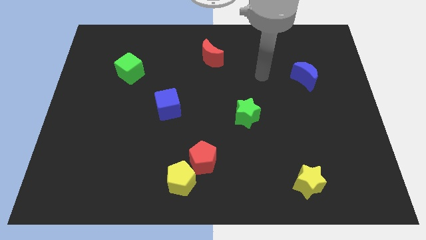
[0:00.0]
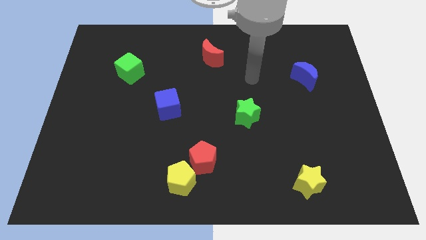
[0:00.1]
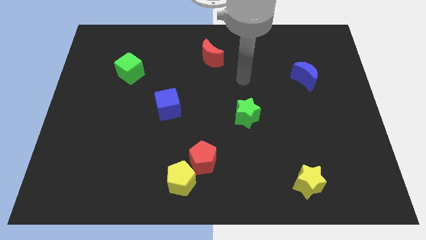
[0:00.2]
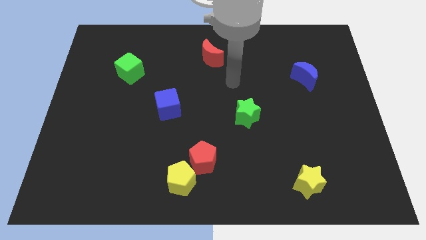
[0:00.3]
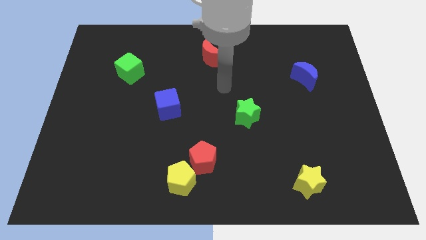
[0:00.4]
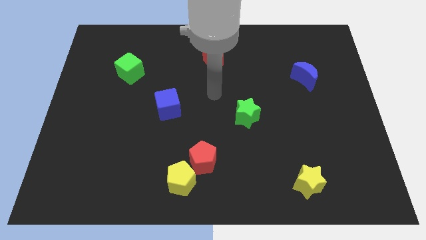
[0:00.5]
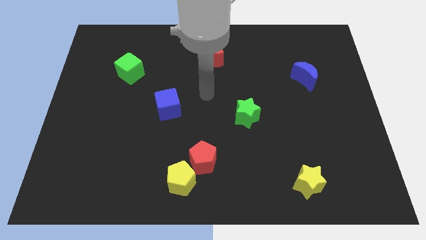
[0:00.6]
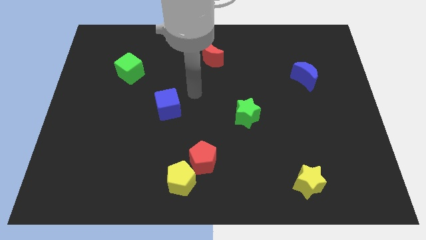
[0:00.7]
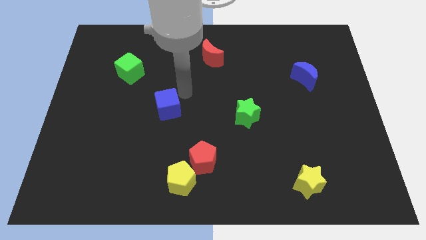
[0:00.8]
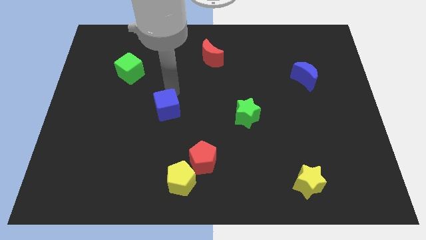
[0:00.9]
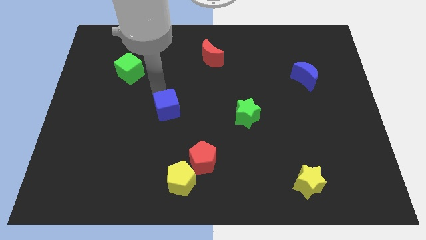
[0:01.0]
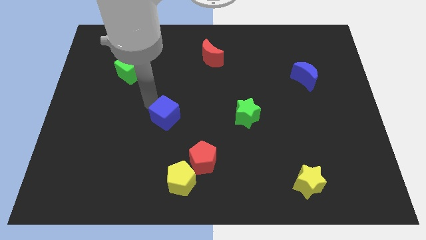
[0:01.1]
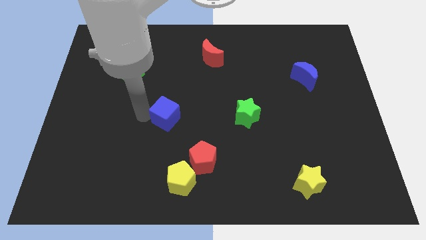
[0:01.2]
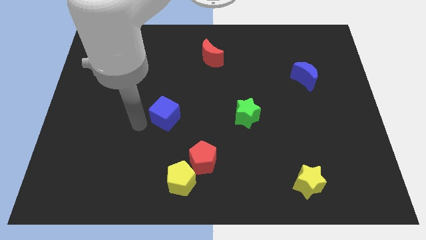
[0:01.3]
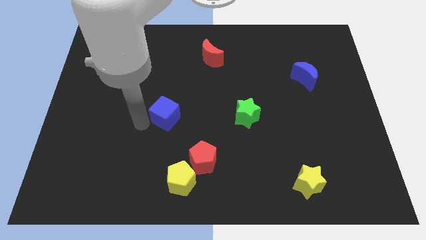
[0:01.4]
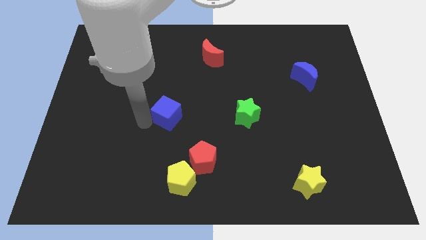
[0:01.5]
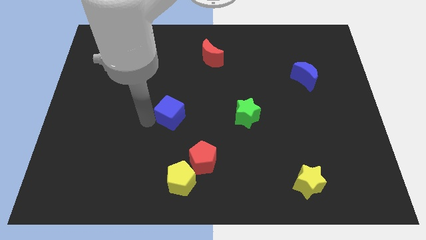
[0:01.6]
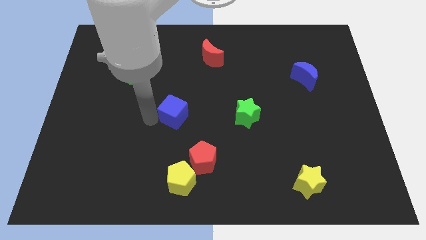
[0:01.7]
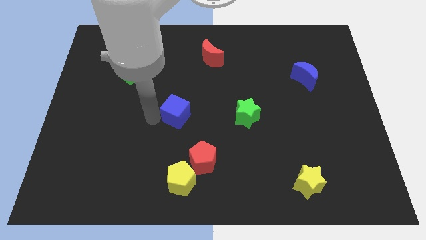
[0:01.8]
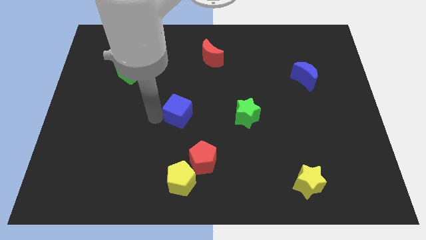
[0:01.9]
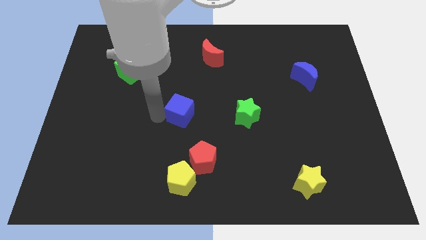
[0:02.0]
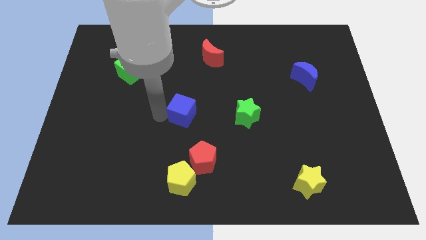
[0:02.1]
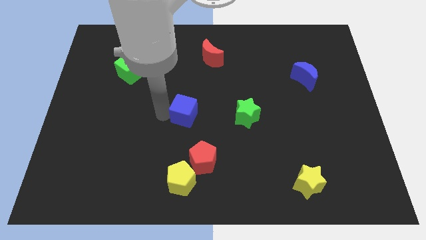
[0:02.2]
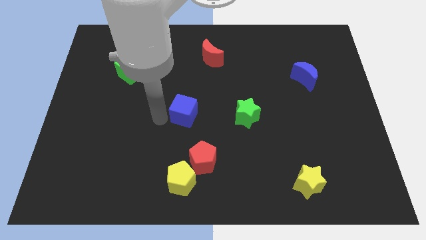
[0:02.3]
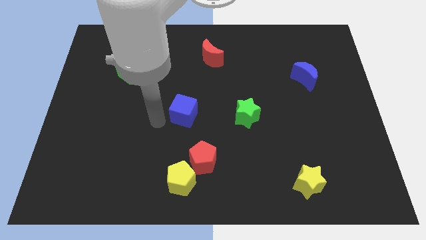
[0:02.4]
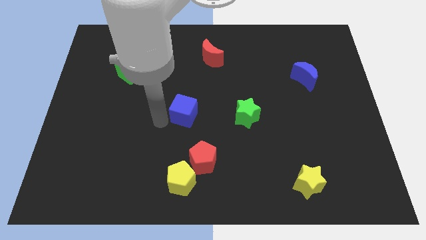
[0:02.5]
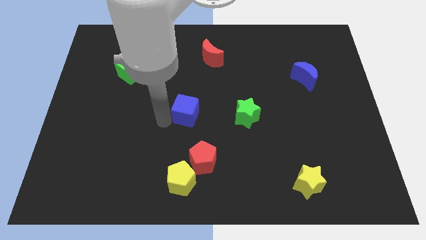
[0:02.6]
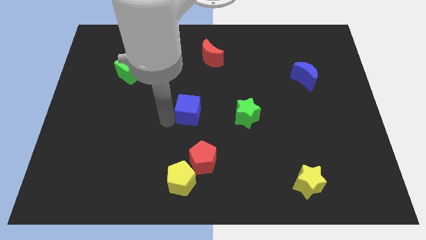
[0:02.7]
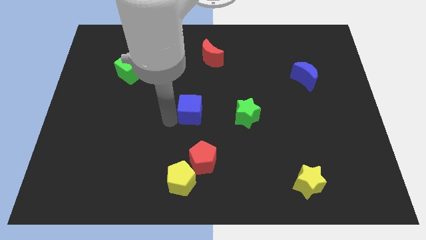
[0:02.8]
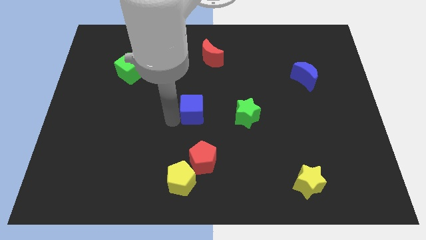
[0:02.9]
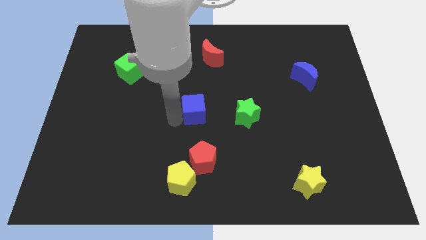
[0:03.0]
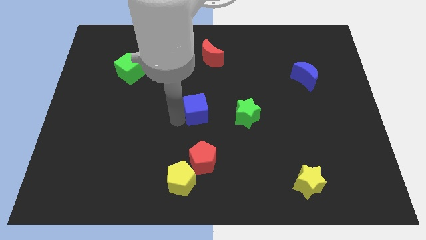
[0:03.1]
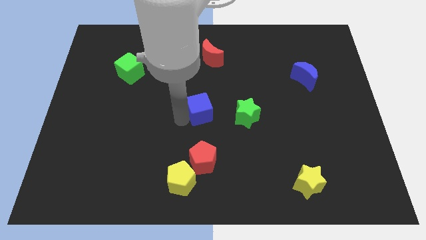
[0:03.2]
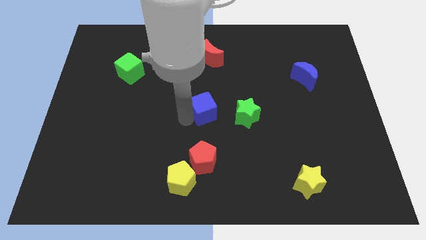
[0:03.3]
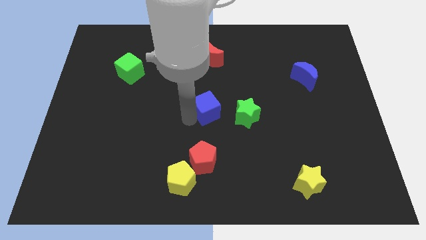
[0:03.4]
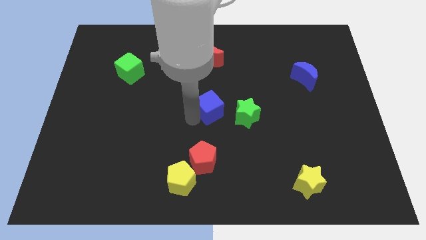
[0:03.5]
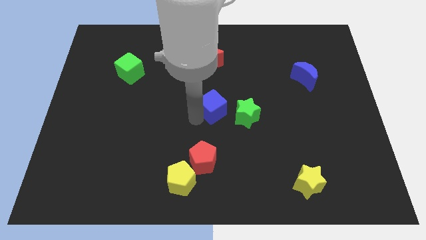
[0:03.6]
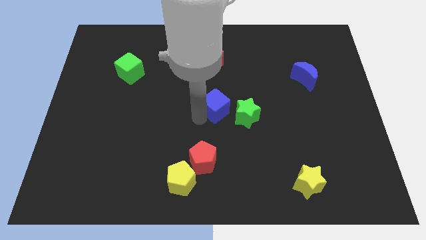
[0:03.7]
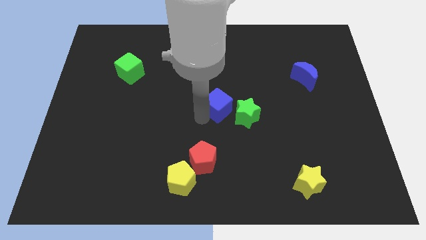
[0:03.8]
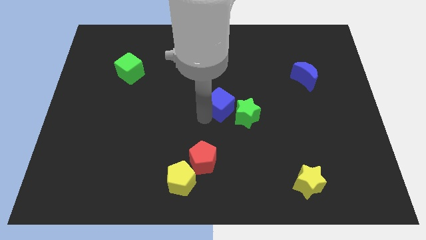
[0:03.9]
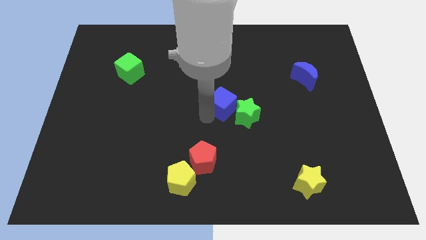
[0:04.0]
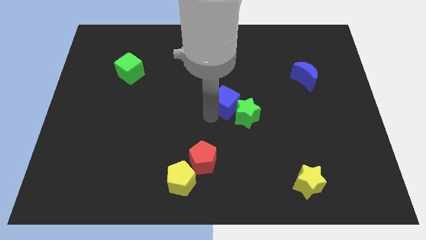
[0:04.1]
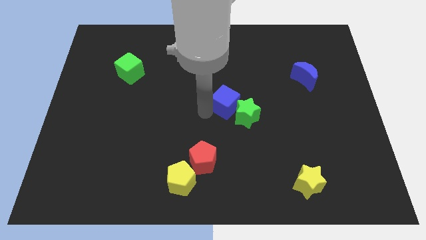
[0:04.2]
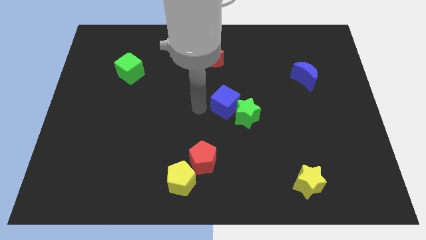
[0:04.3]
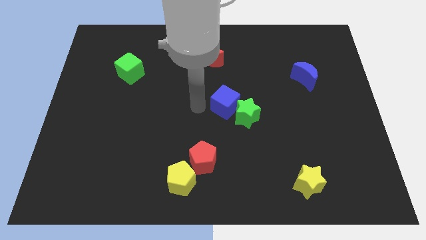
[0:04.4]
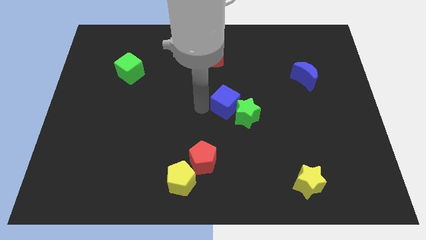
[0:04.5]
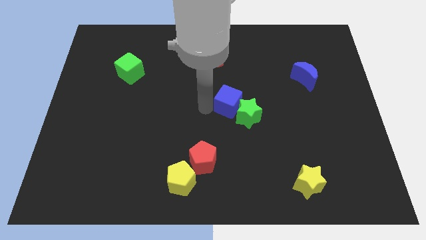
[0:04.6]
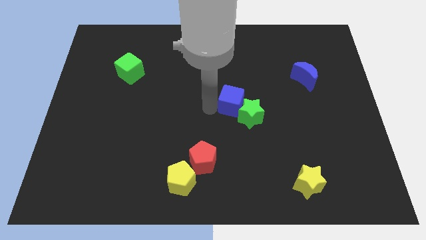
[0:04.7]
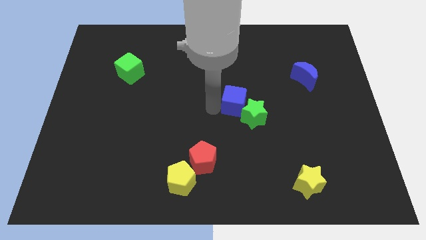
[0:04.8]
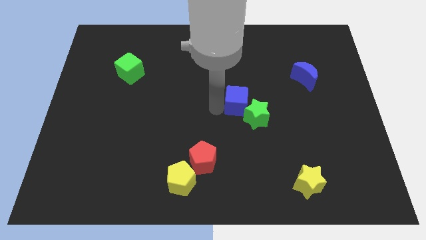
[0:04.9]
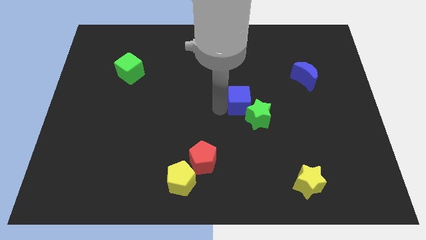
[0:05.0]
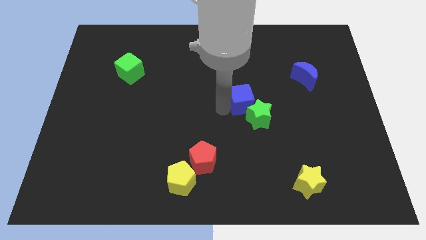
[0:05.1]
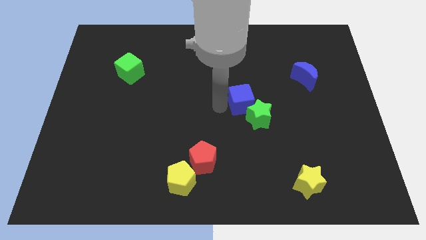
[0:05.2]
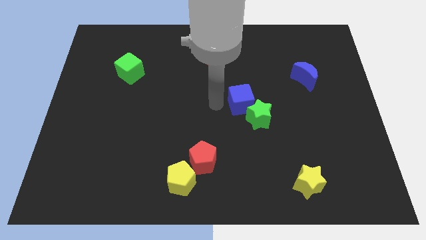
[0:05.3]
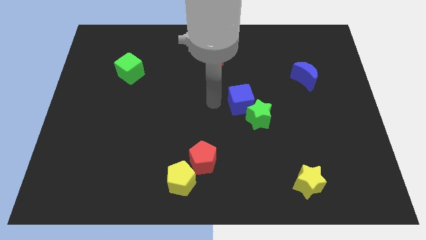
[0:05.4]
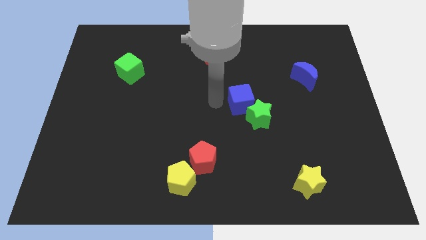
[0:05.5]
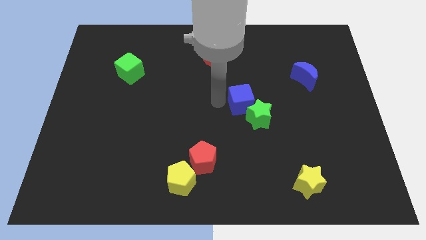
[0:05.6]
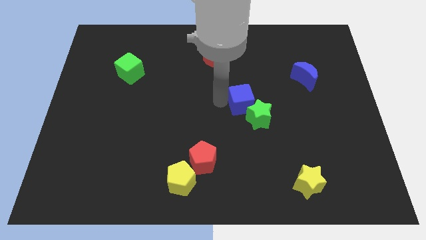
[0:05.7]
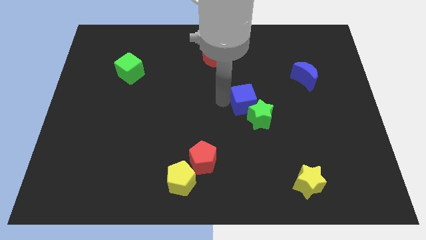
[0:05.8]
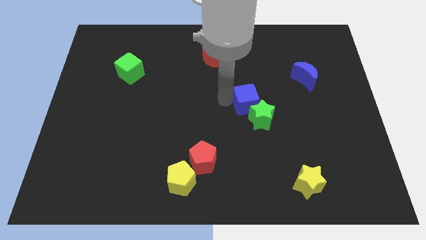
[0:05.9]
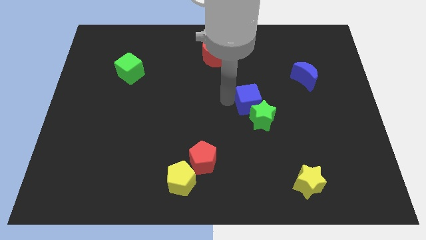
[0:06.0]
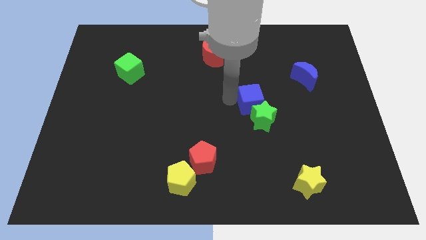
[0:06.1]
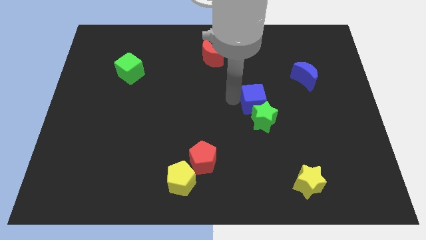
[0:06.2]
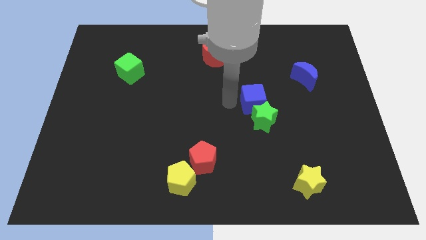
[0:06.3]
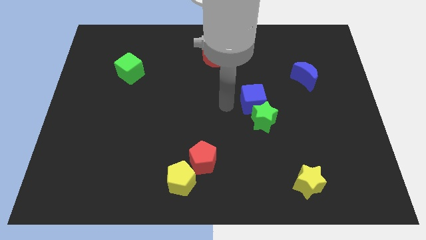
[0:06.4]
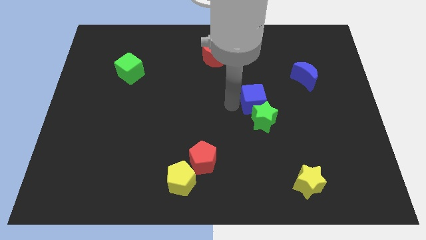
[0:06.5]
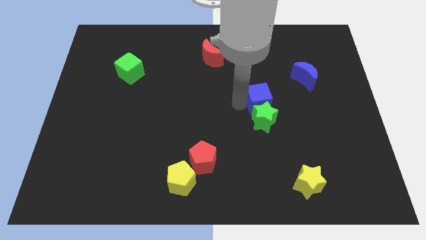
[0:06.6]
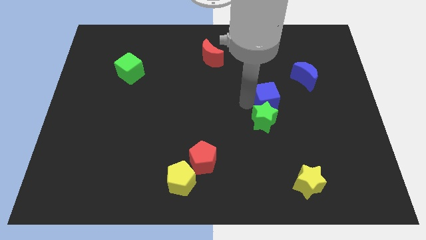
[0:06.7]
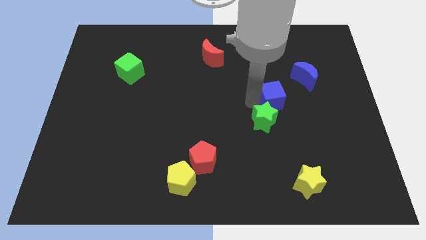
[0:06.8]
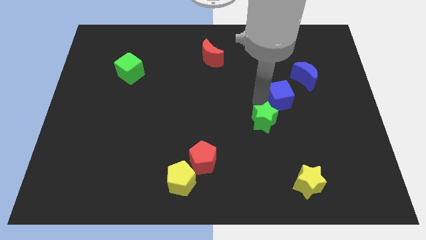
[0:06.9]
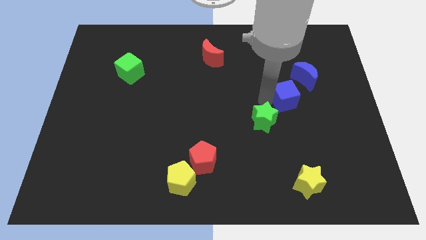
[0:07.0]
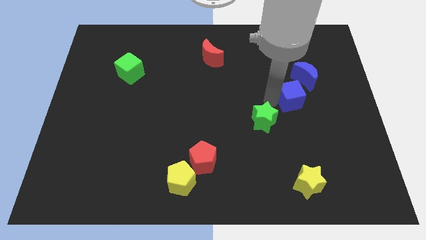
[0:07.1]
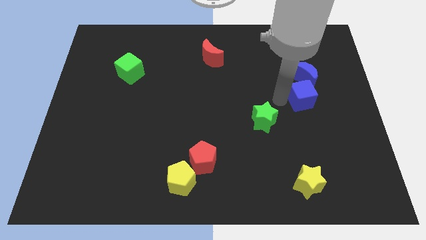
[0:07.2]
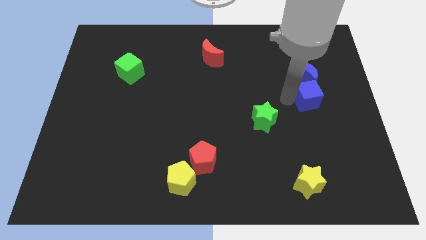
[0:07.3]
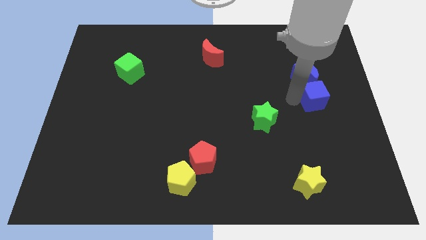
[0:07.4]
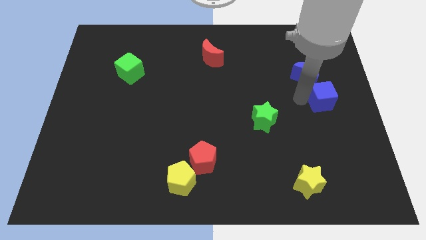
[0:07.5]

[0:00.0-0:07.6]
move the blue cube to the right side
